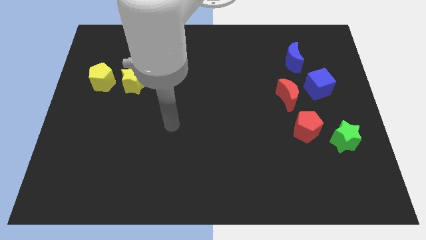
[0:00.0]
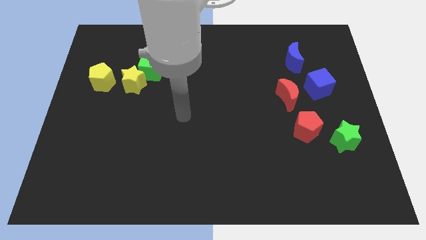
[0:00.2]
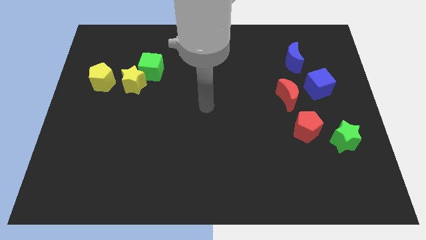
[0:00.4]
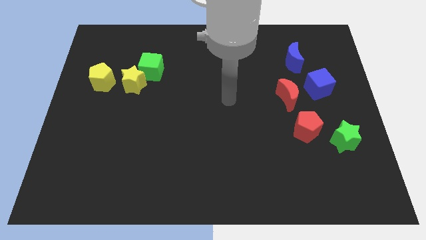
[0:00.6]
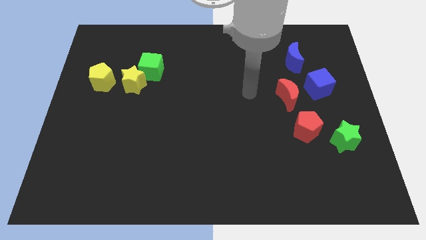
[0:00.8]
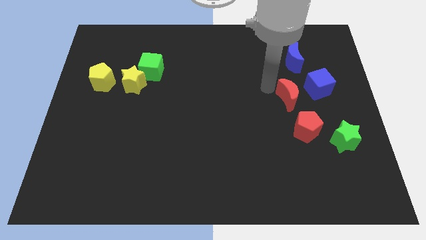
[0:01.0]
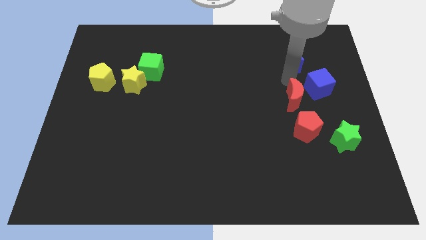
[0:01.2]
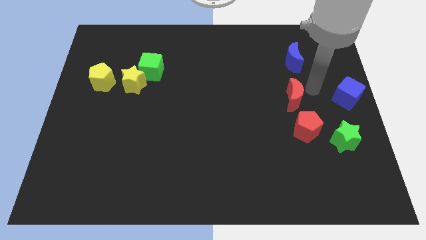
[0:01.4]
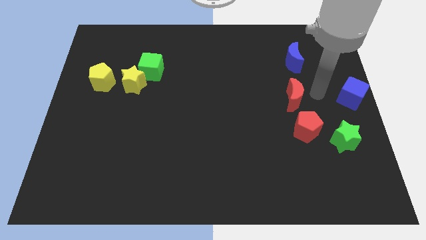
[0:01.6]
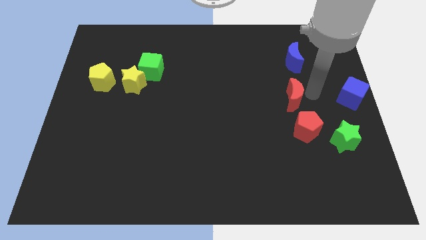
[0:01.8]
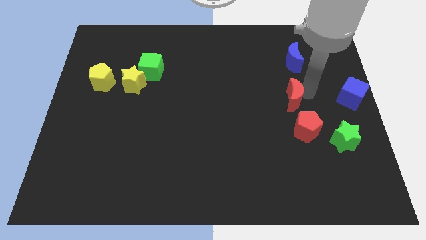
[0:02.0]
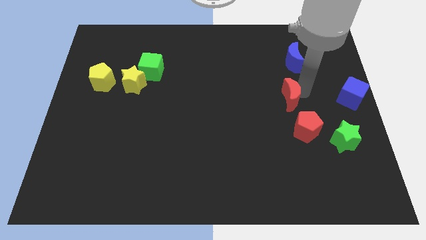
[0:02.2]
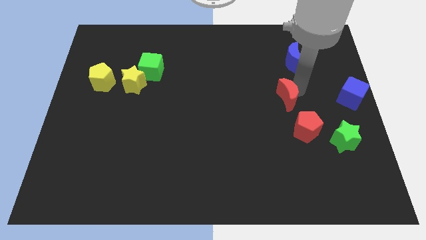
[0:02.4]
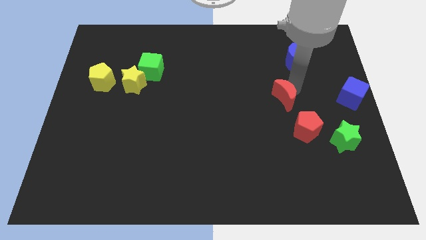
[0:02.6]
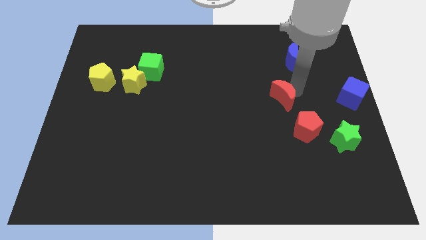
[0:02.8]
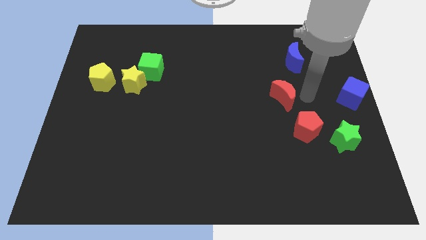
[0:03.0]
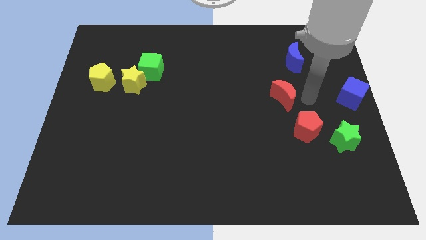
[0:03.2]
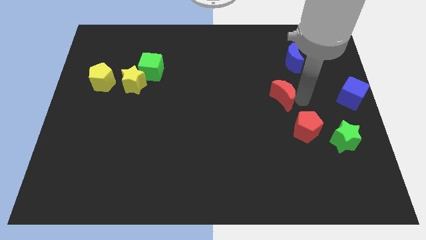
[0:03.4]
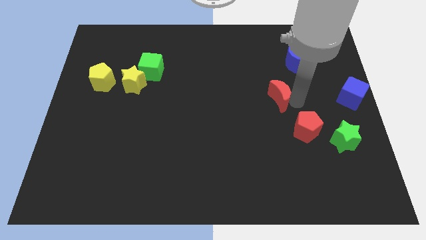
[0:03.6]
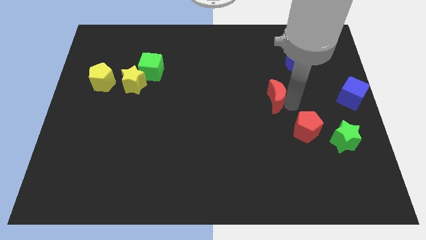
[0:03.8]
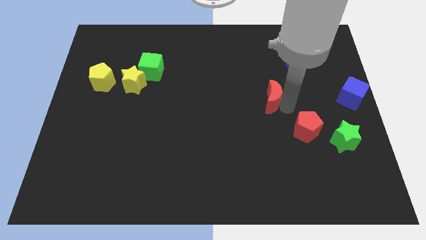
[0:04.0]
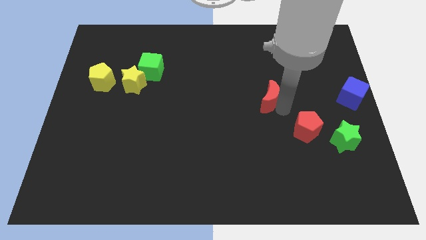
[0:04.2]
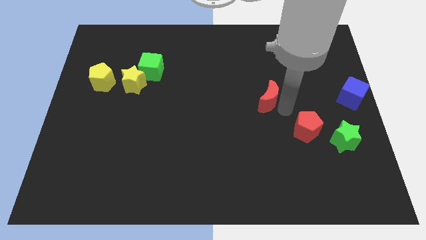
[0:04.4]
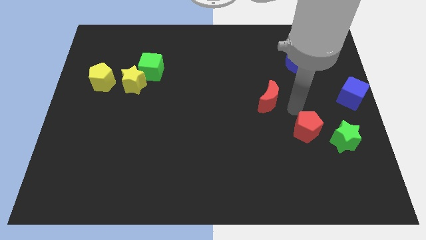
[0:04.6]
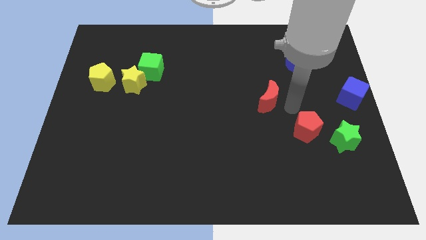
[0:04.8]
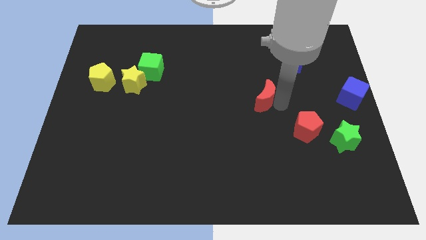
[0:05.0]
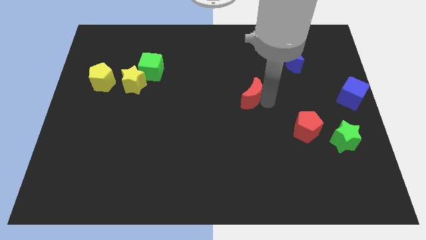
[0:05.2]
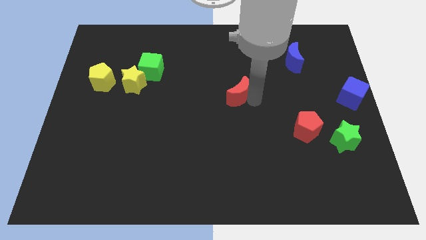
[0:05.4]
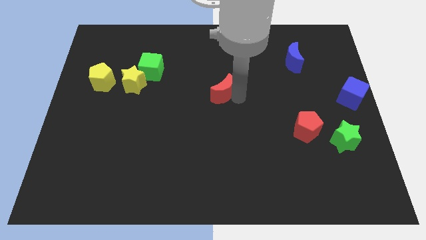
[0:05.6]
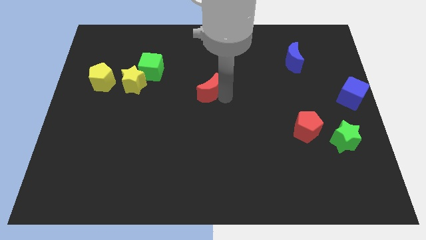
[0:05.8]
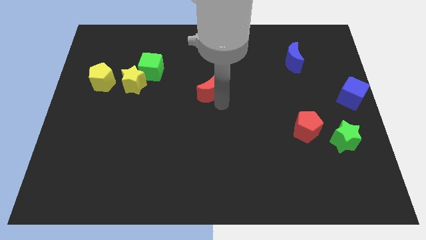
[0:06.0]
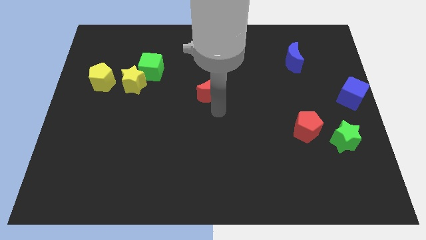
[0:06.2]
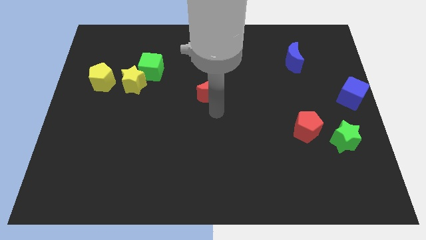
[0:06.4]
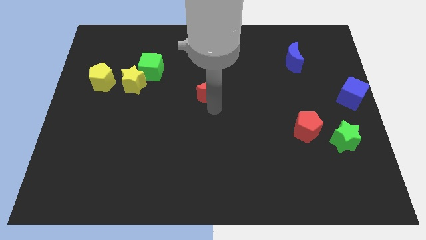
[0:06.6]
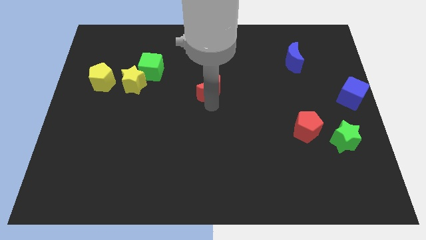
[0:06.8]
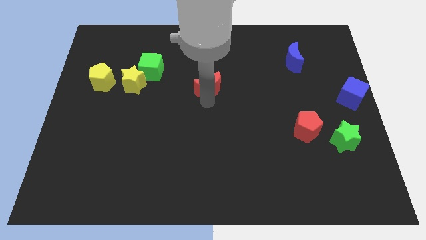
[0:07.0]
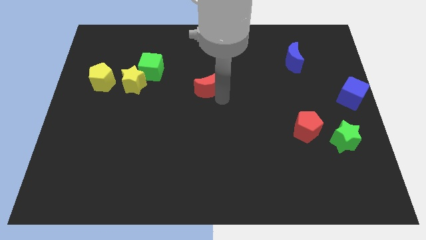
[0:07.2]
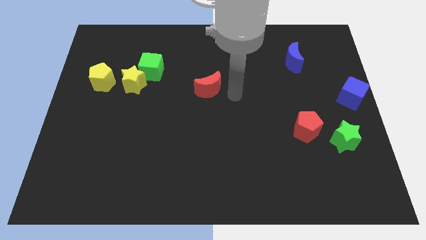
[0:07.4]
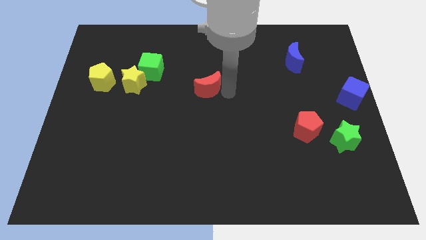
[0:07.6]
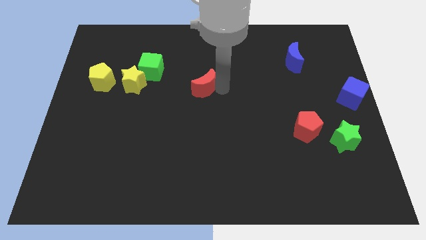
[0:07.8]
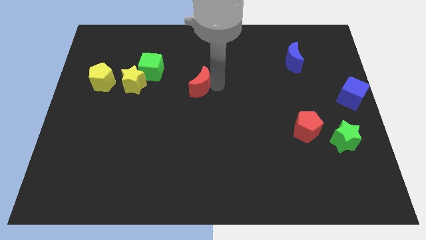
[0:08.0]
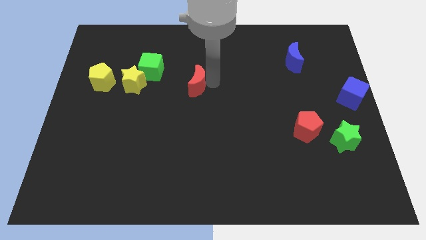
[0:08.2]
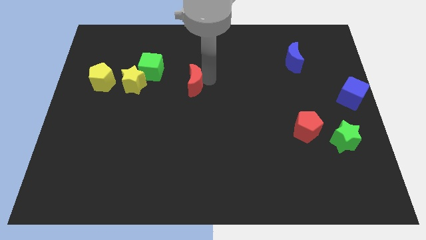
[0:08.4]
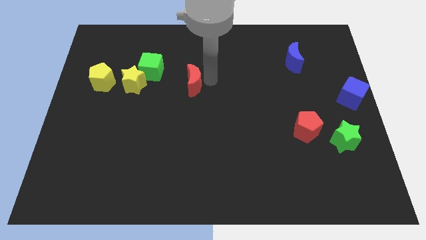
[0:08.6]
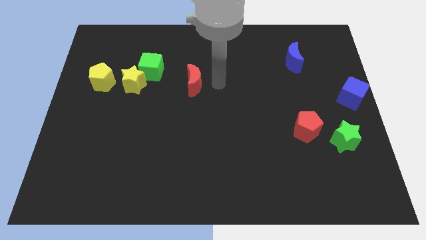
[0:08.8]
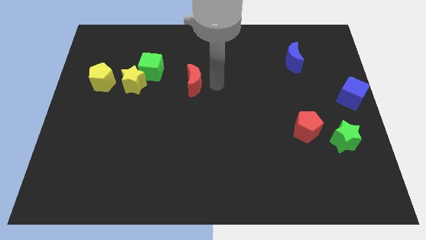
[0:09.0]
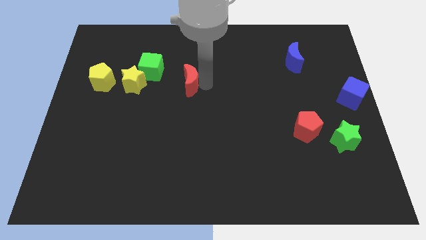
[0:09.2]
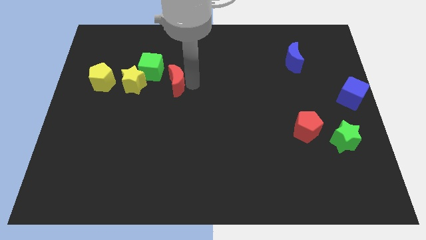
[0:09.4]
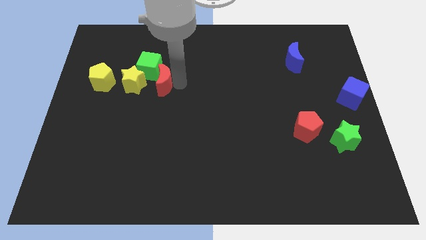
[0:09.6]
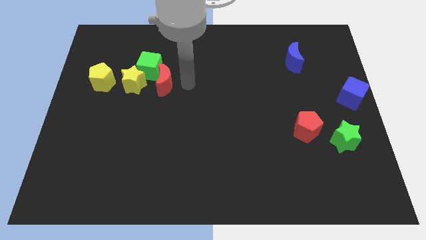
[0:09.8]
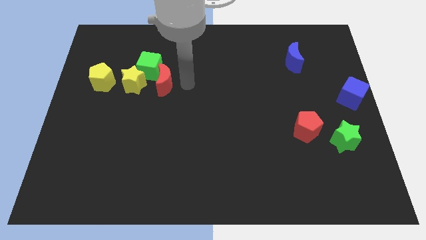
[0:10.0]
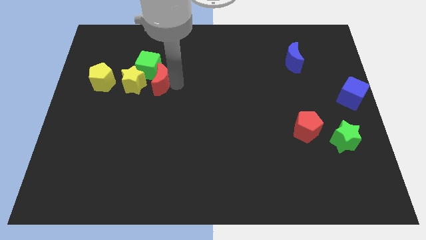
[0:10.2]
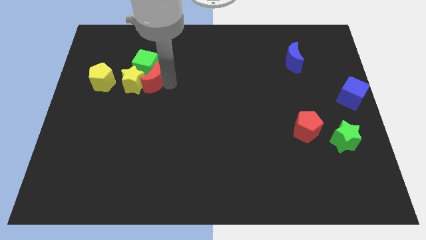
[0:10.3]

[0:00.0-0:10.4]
slide the red moon towards the yellow star

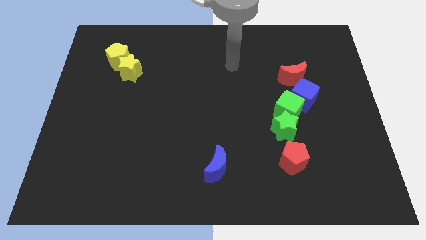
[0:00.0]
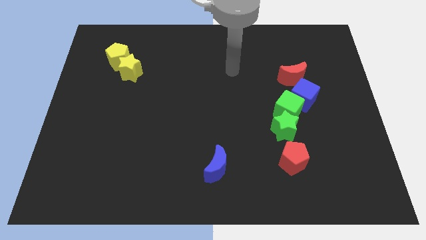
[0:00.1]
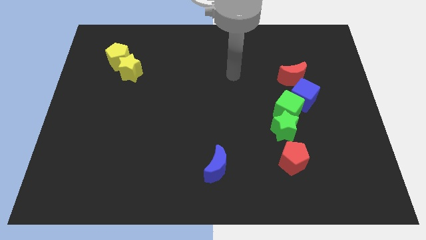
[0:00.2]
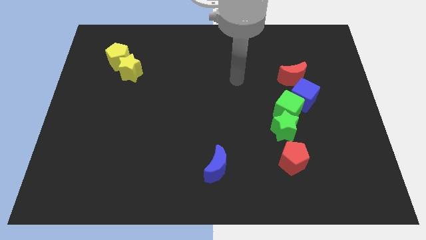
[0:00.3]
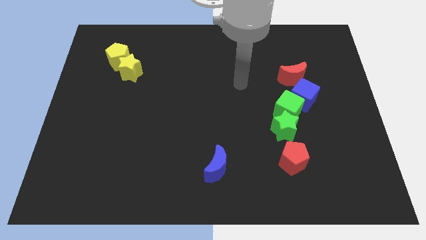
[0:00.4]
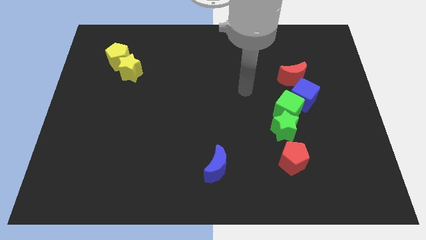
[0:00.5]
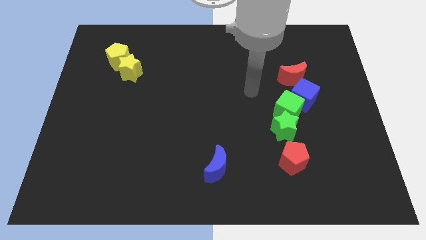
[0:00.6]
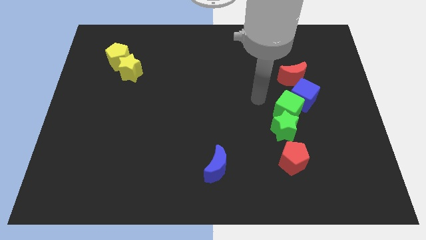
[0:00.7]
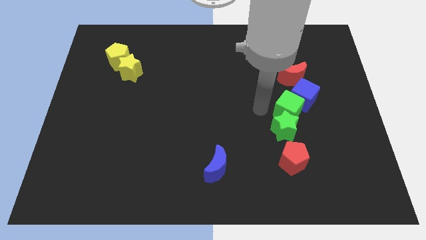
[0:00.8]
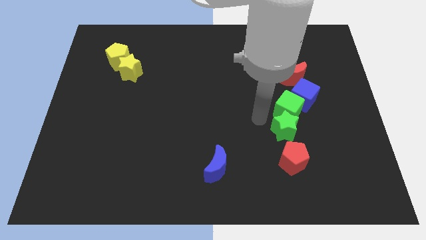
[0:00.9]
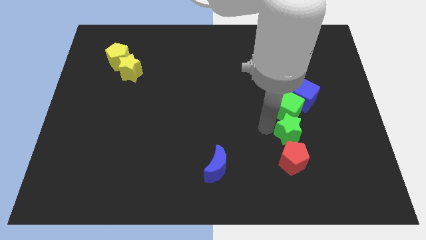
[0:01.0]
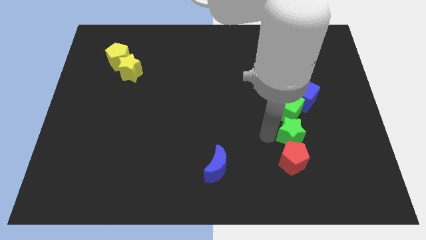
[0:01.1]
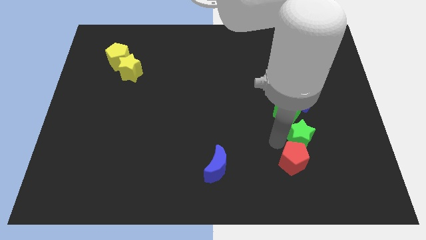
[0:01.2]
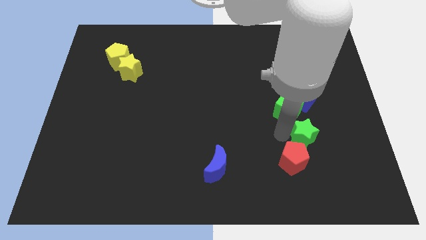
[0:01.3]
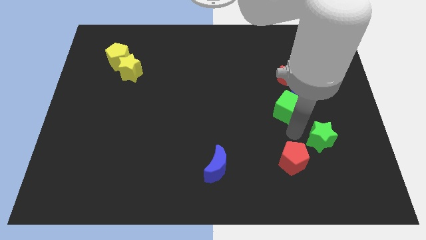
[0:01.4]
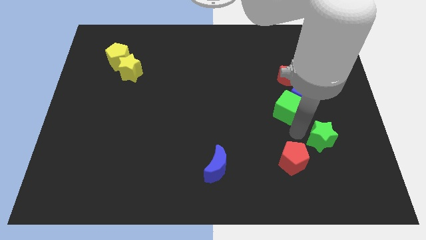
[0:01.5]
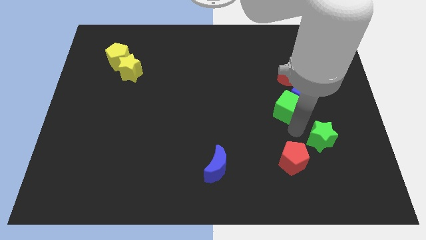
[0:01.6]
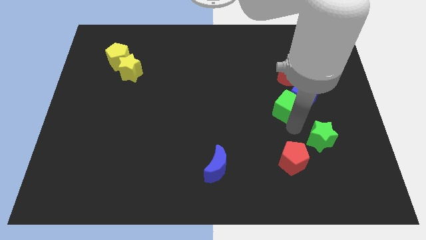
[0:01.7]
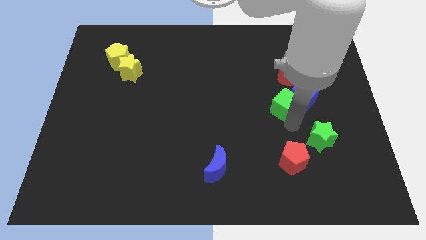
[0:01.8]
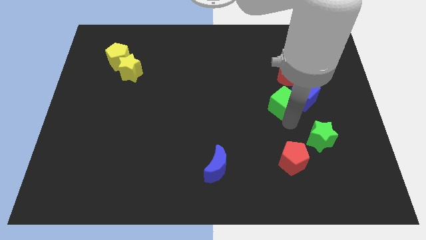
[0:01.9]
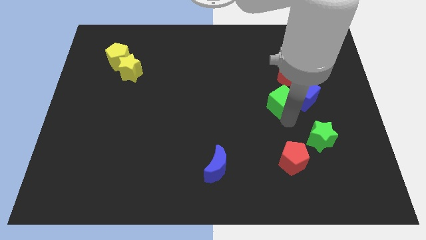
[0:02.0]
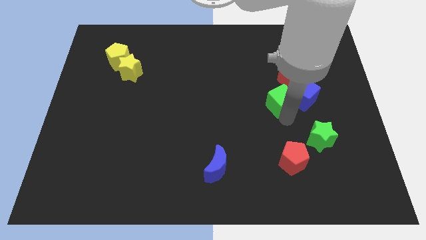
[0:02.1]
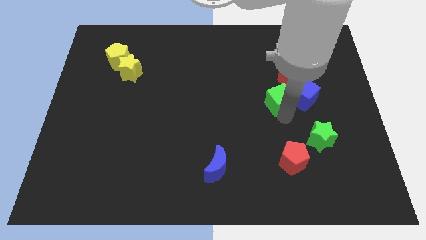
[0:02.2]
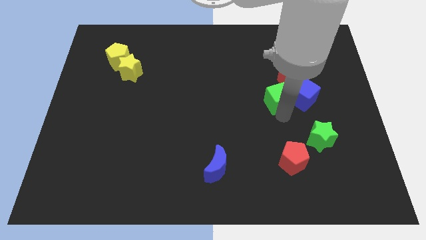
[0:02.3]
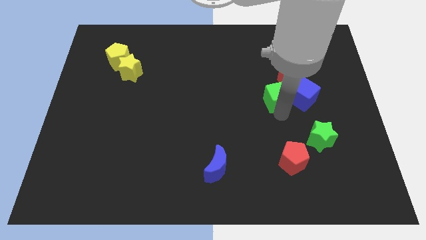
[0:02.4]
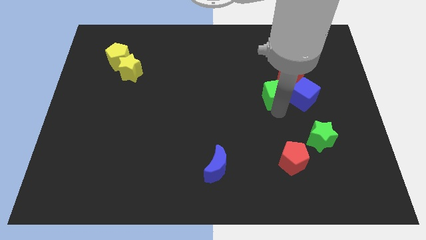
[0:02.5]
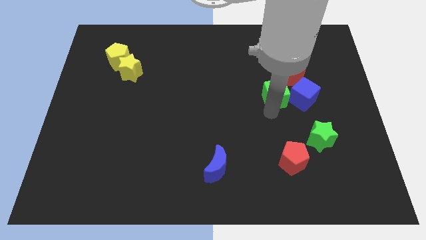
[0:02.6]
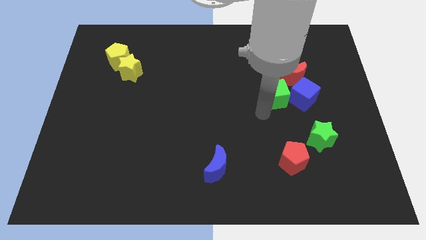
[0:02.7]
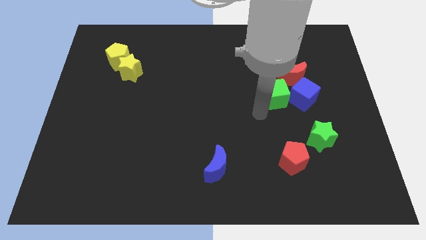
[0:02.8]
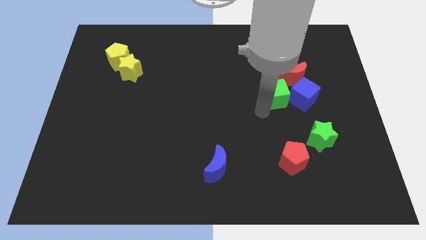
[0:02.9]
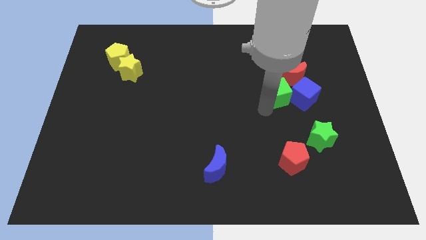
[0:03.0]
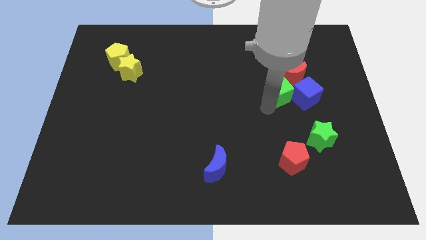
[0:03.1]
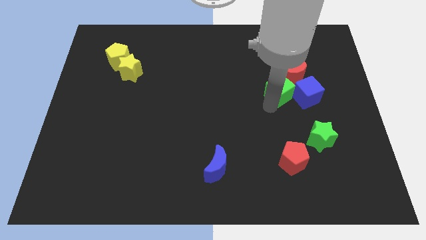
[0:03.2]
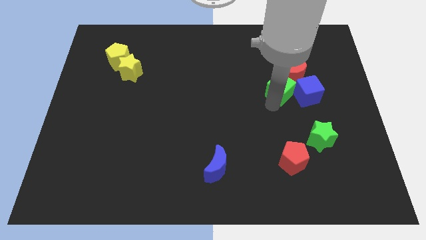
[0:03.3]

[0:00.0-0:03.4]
push the green cube towards the red moon
